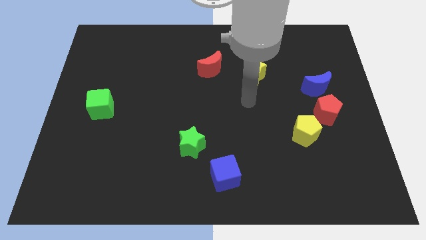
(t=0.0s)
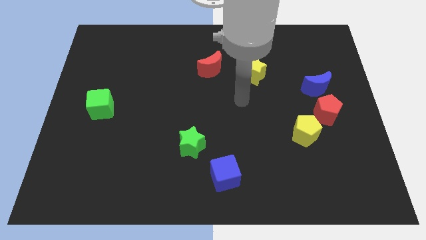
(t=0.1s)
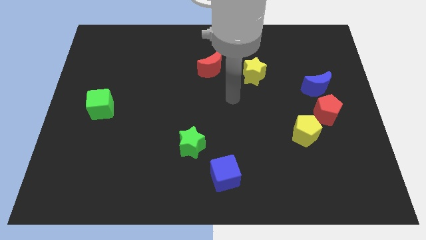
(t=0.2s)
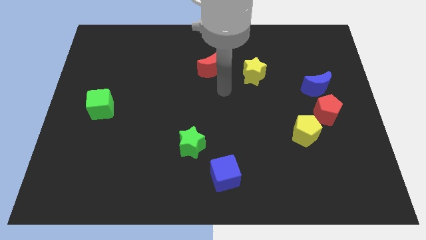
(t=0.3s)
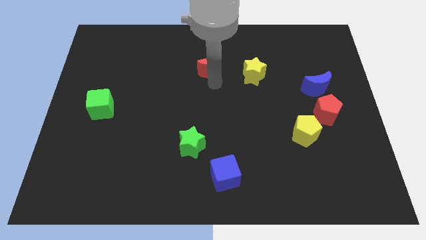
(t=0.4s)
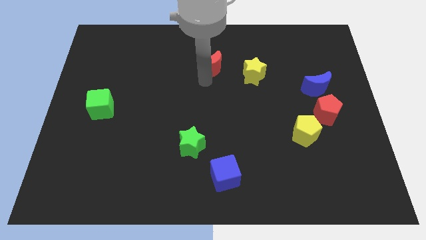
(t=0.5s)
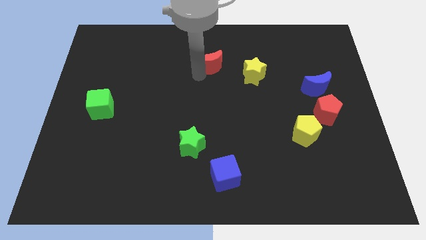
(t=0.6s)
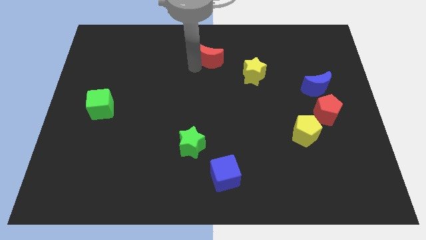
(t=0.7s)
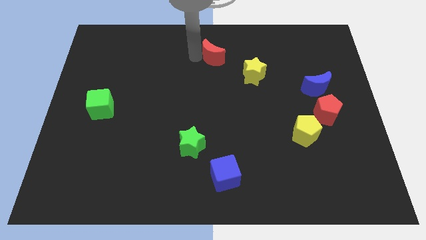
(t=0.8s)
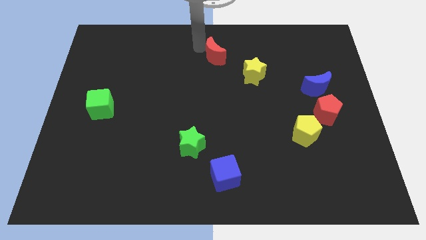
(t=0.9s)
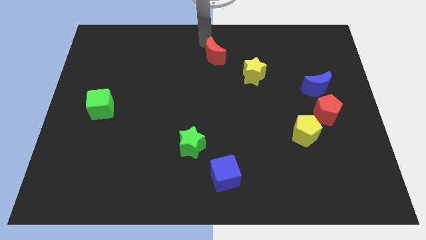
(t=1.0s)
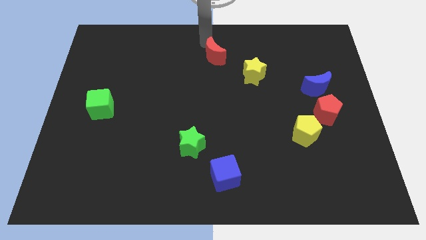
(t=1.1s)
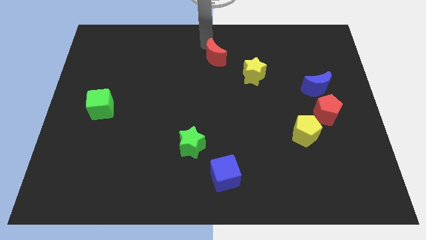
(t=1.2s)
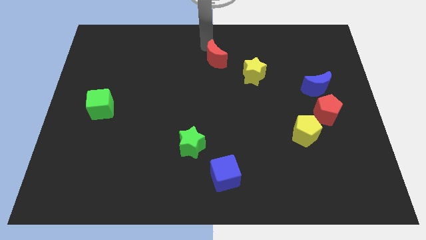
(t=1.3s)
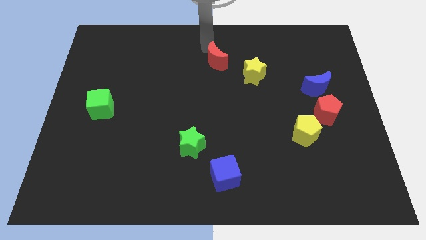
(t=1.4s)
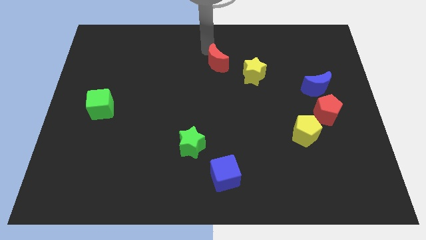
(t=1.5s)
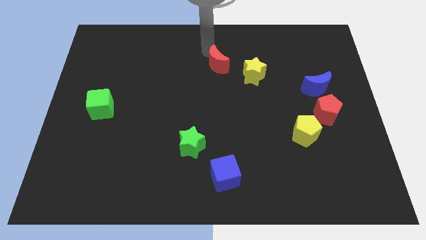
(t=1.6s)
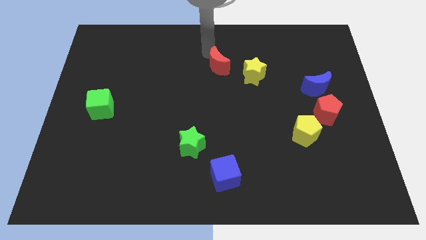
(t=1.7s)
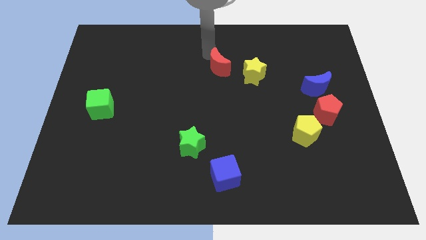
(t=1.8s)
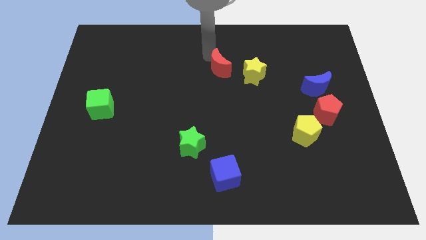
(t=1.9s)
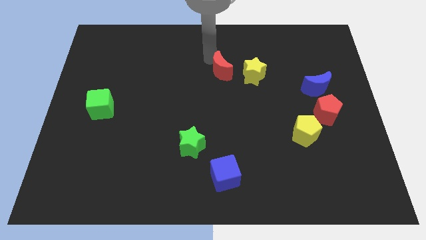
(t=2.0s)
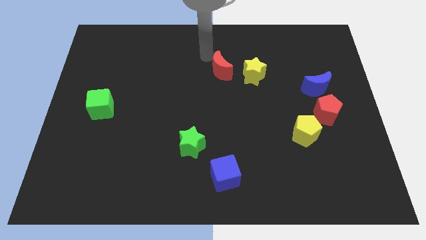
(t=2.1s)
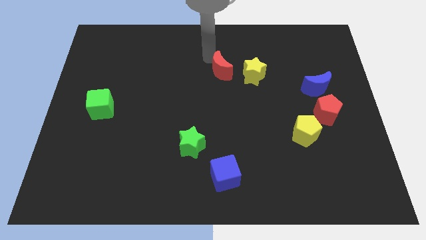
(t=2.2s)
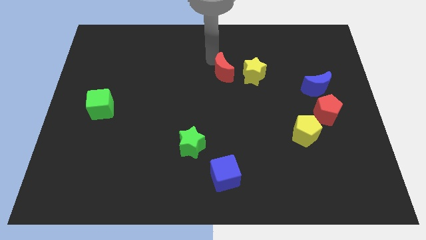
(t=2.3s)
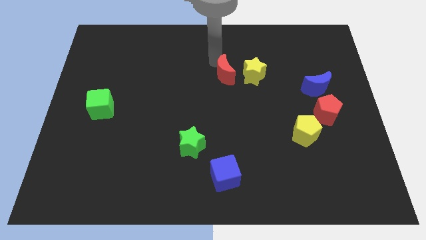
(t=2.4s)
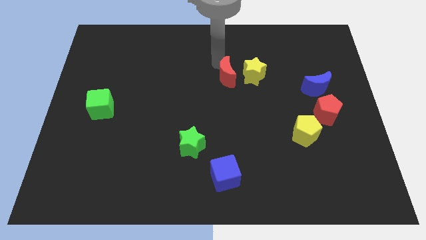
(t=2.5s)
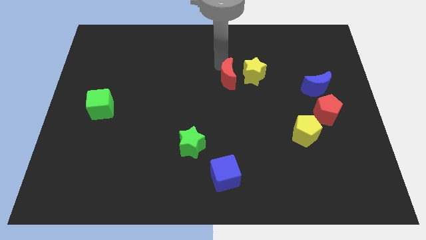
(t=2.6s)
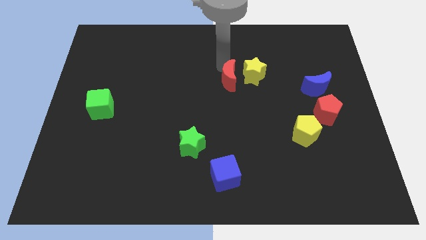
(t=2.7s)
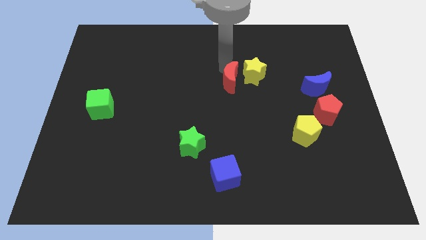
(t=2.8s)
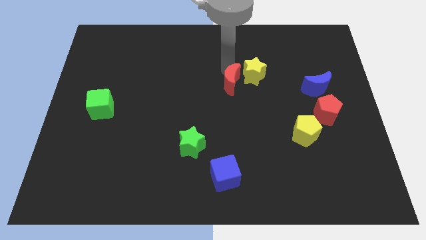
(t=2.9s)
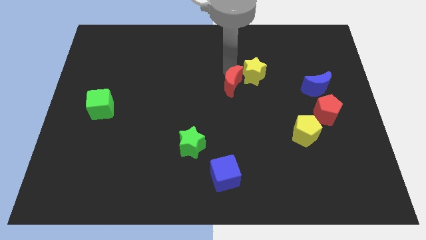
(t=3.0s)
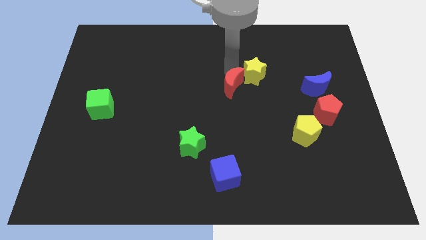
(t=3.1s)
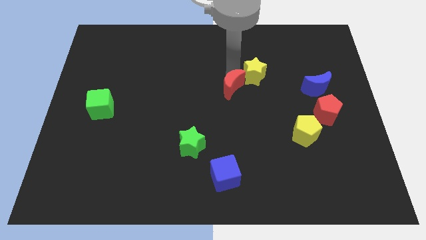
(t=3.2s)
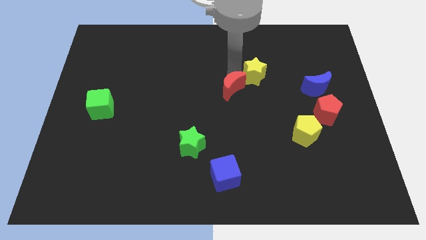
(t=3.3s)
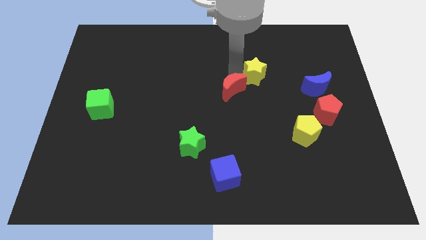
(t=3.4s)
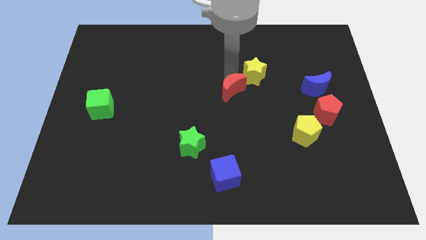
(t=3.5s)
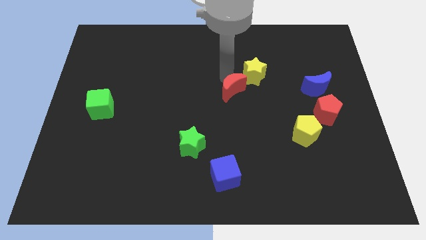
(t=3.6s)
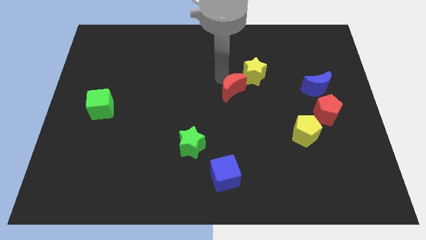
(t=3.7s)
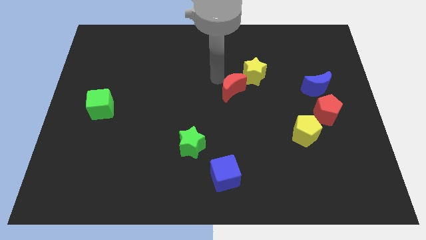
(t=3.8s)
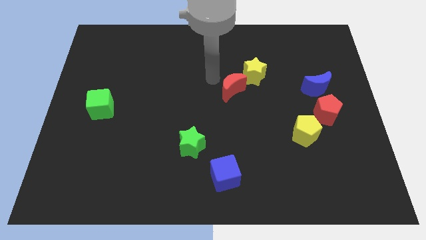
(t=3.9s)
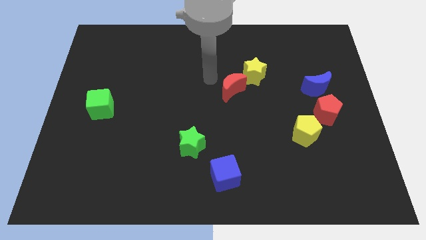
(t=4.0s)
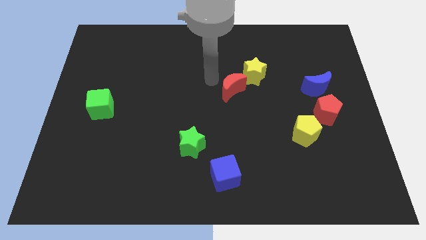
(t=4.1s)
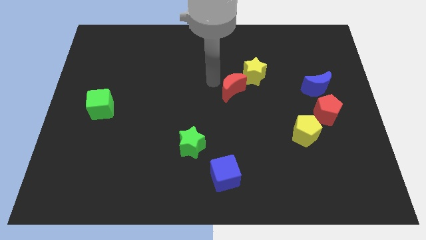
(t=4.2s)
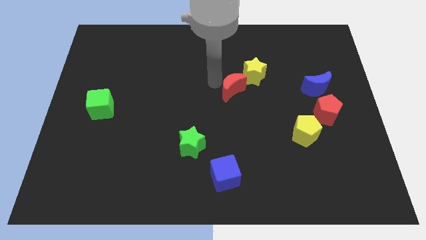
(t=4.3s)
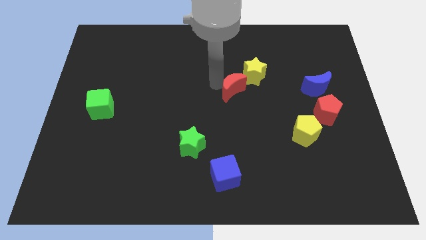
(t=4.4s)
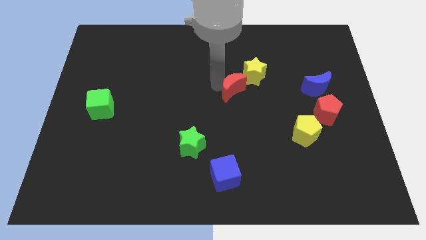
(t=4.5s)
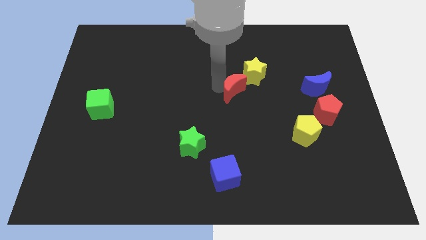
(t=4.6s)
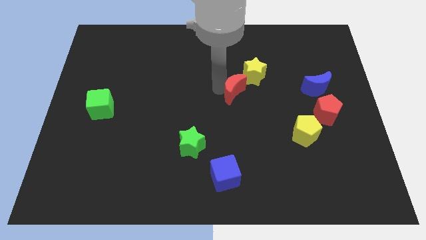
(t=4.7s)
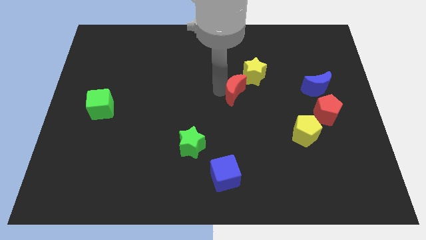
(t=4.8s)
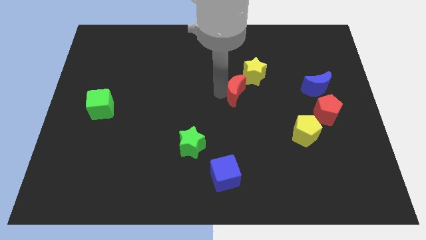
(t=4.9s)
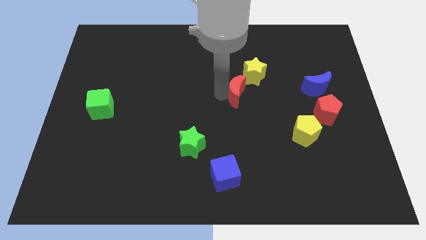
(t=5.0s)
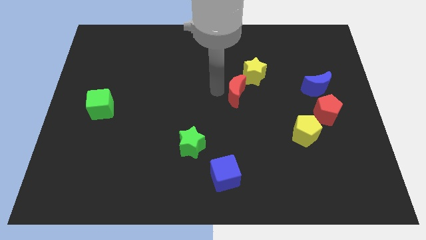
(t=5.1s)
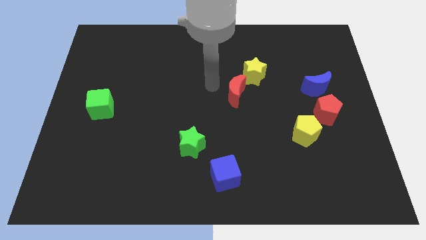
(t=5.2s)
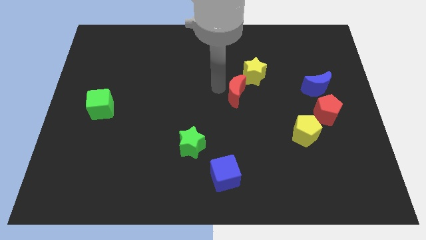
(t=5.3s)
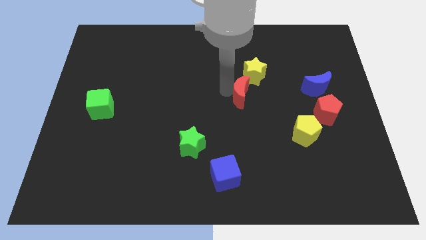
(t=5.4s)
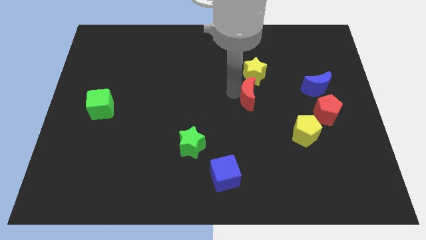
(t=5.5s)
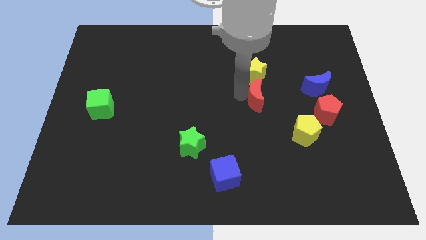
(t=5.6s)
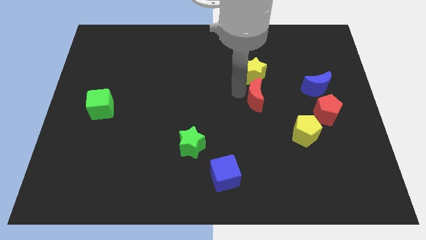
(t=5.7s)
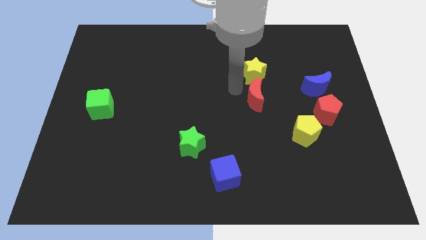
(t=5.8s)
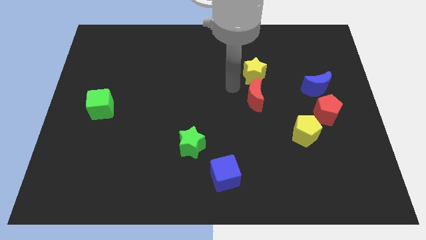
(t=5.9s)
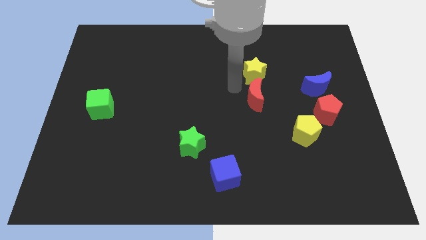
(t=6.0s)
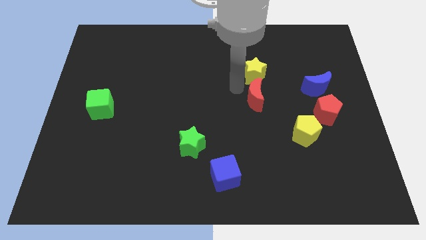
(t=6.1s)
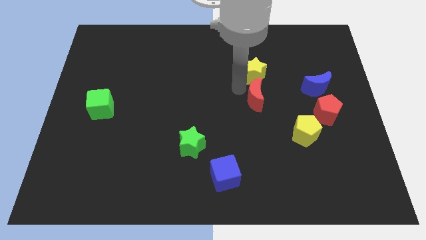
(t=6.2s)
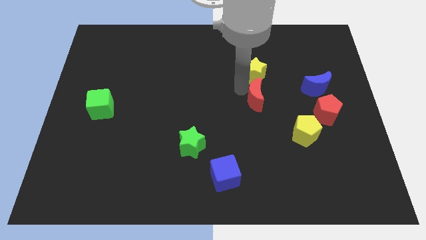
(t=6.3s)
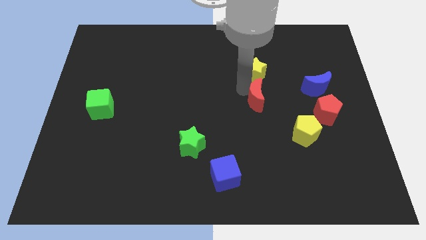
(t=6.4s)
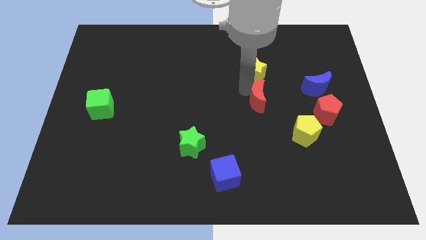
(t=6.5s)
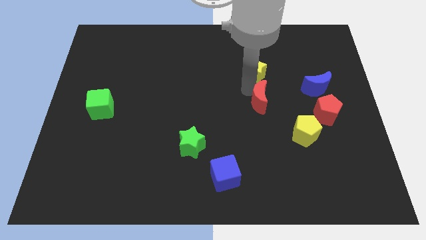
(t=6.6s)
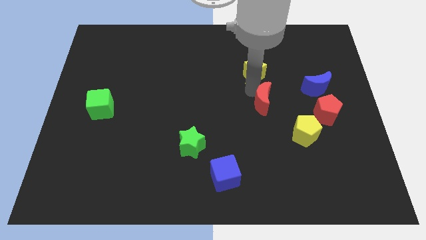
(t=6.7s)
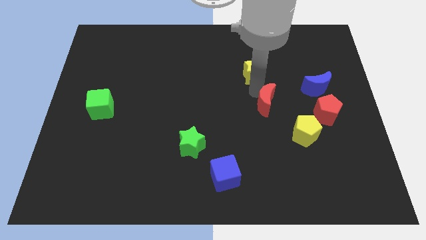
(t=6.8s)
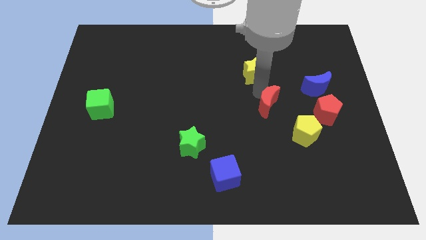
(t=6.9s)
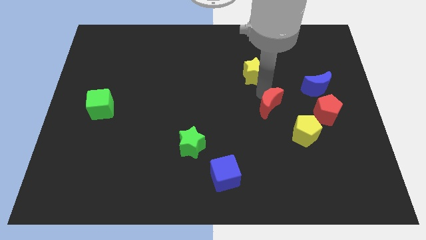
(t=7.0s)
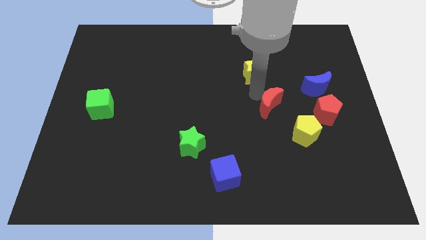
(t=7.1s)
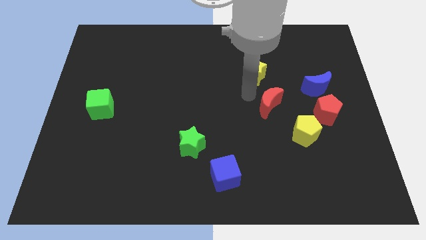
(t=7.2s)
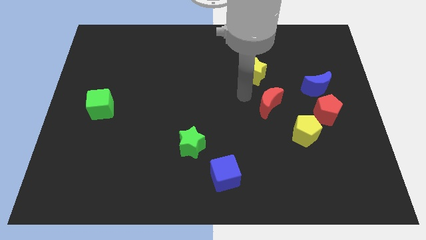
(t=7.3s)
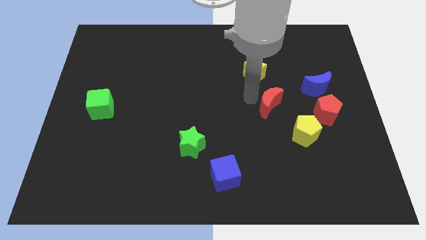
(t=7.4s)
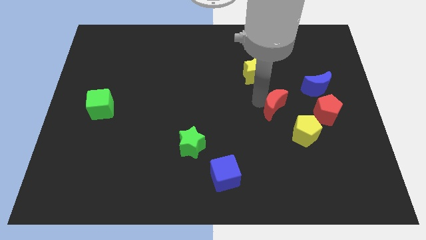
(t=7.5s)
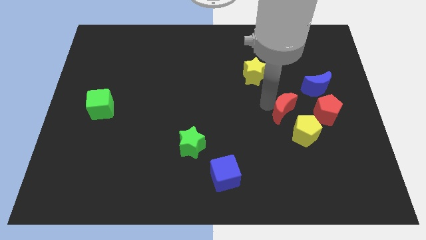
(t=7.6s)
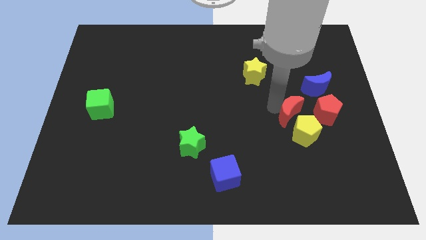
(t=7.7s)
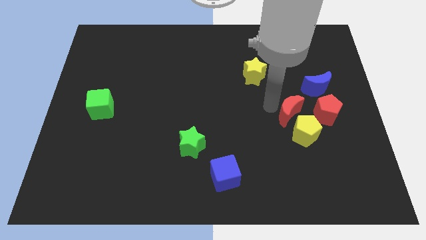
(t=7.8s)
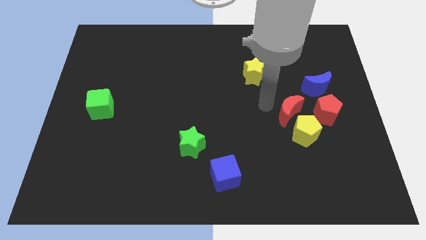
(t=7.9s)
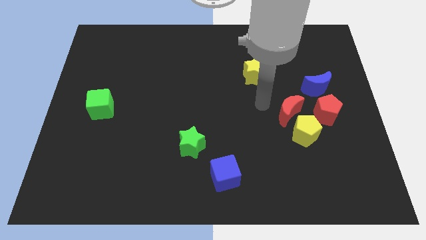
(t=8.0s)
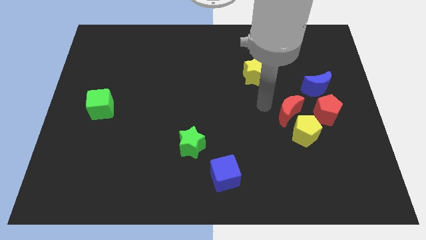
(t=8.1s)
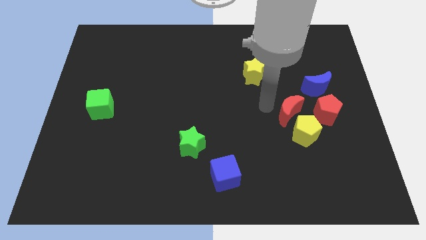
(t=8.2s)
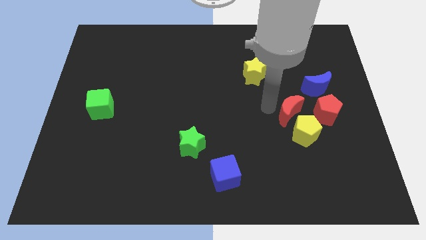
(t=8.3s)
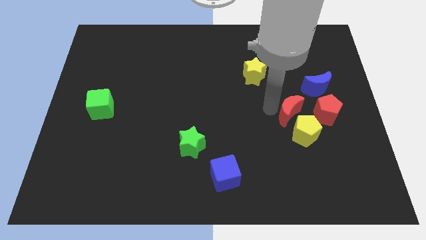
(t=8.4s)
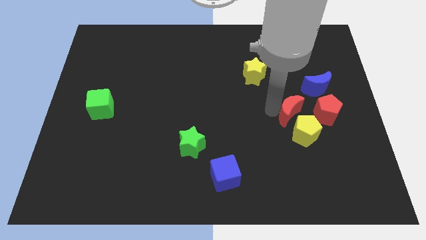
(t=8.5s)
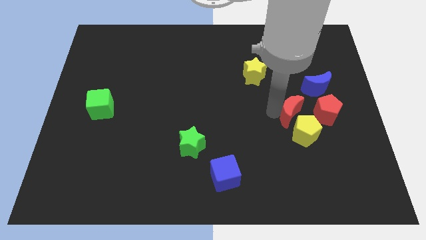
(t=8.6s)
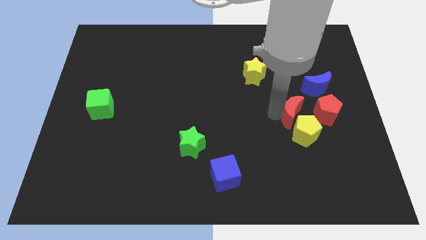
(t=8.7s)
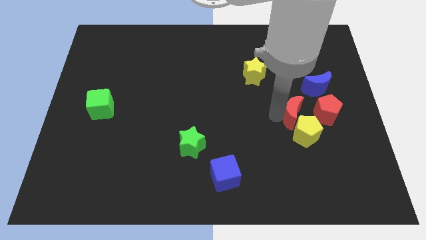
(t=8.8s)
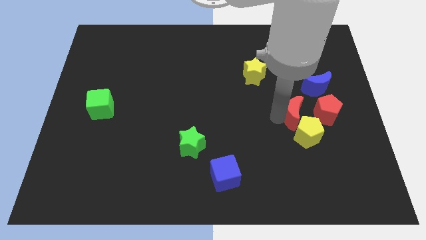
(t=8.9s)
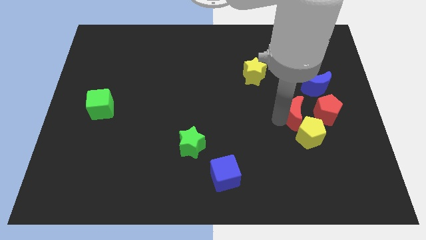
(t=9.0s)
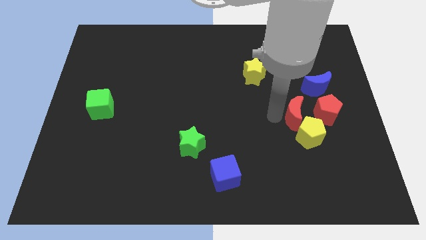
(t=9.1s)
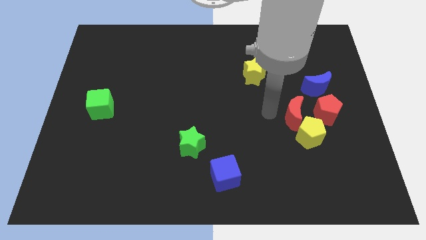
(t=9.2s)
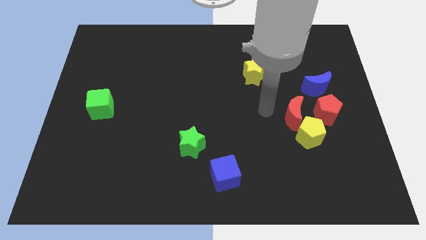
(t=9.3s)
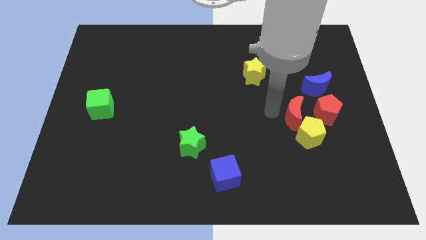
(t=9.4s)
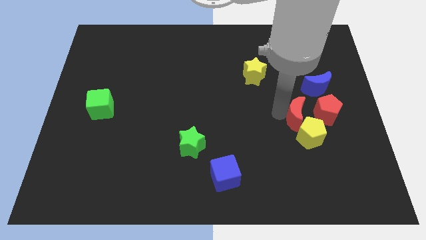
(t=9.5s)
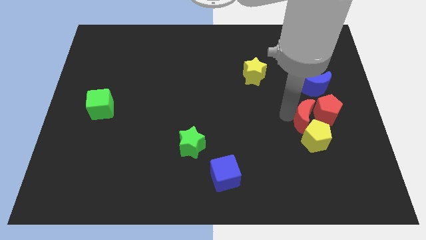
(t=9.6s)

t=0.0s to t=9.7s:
push the red moon below the blue moon
